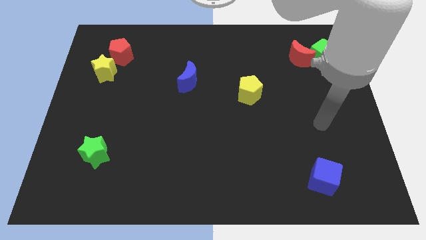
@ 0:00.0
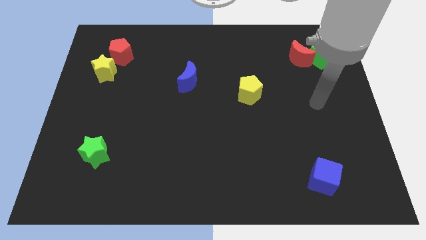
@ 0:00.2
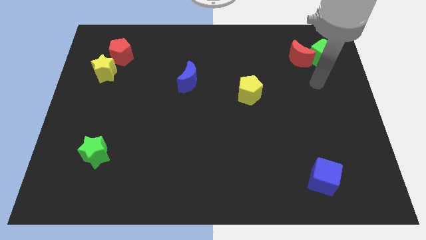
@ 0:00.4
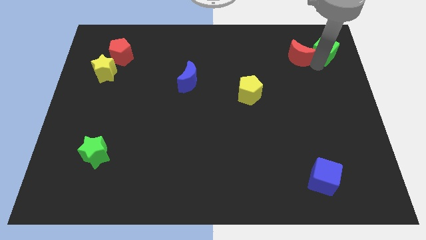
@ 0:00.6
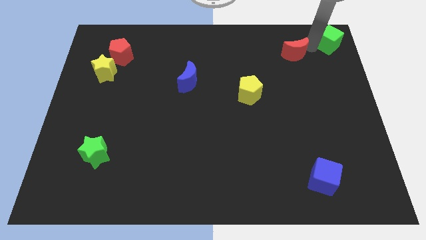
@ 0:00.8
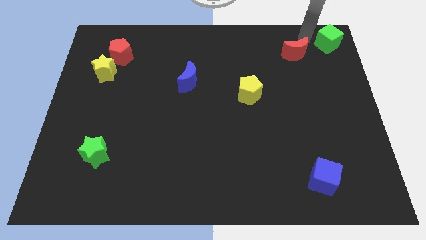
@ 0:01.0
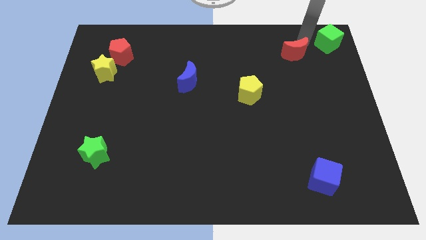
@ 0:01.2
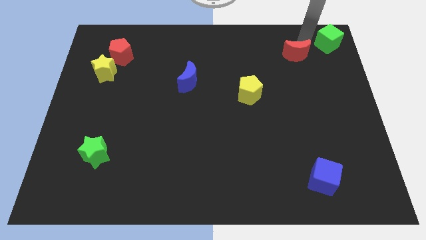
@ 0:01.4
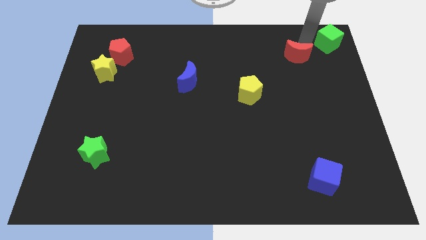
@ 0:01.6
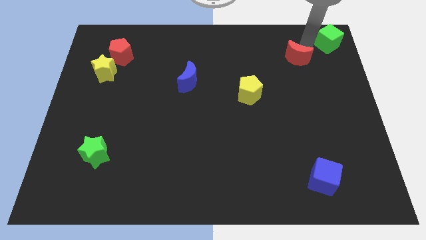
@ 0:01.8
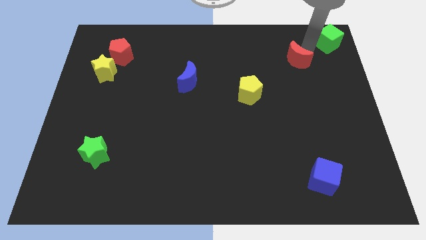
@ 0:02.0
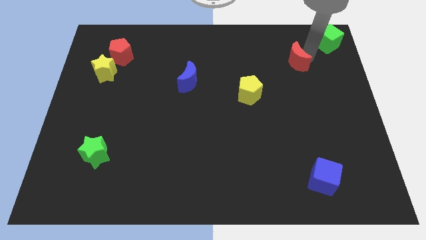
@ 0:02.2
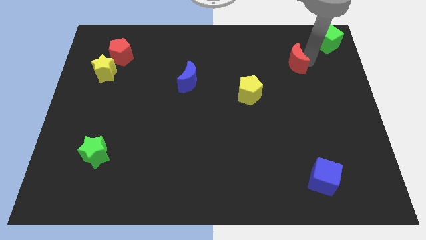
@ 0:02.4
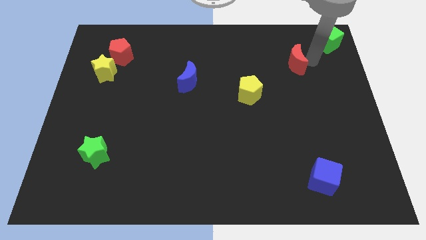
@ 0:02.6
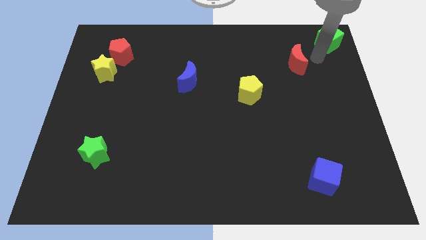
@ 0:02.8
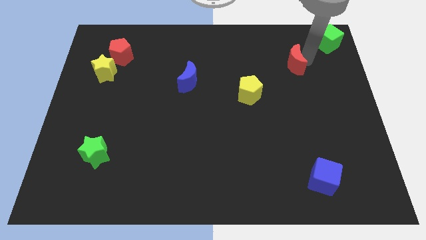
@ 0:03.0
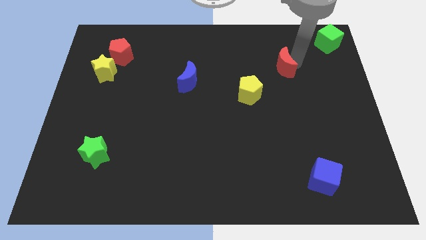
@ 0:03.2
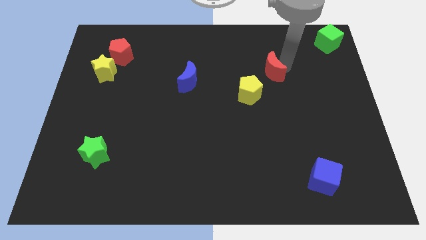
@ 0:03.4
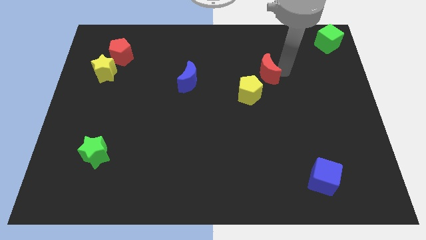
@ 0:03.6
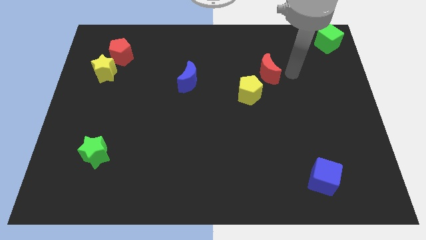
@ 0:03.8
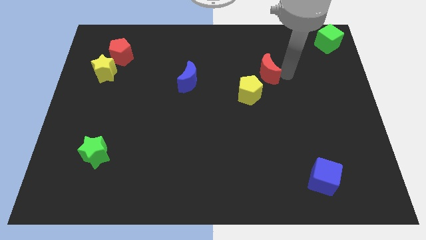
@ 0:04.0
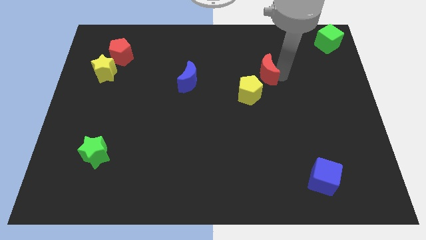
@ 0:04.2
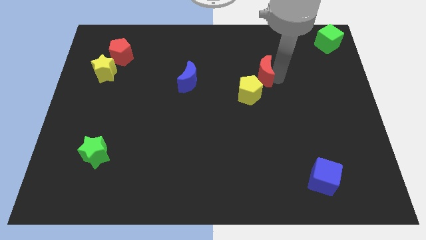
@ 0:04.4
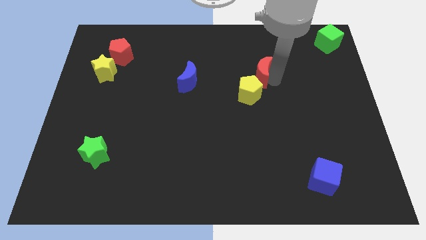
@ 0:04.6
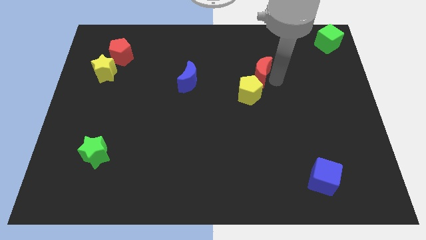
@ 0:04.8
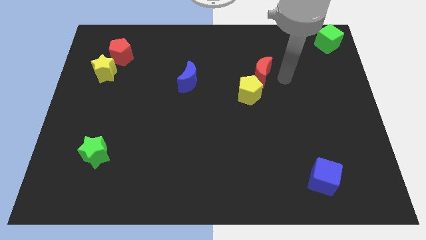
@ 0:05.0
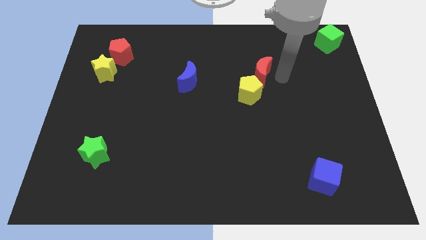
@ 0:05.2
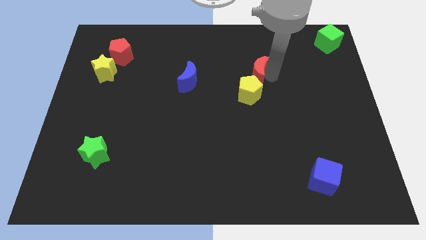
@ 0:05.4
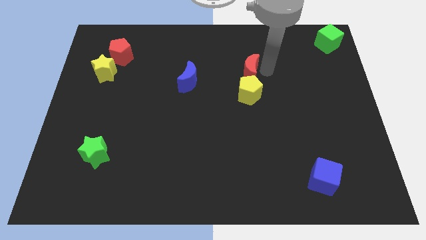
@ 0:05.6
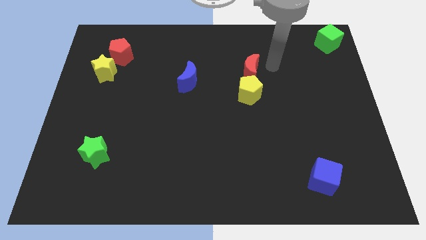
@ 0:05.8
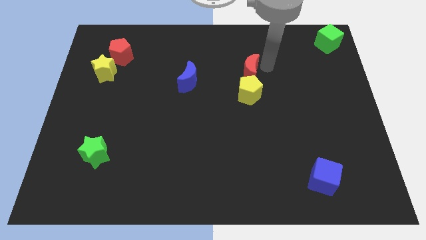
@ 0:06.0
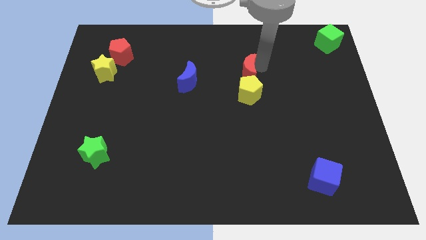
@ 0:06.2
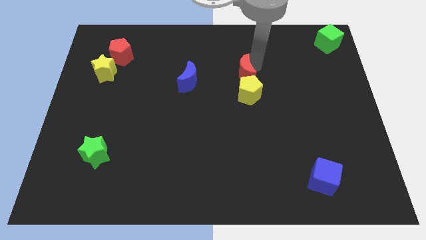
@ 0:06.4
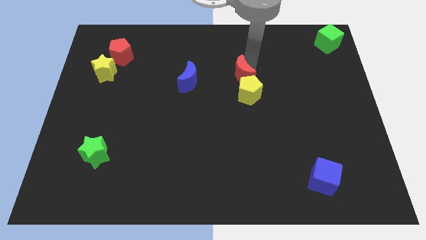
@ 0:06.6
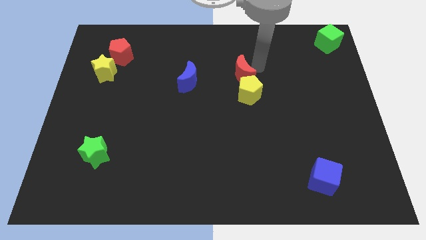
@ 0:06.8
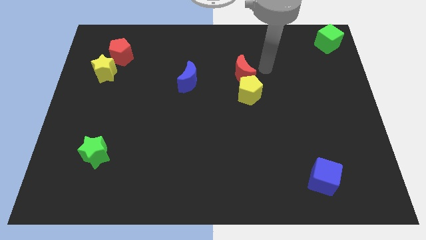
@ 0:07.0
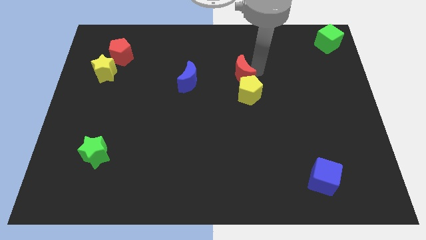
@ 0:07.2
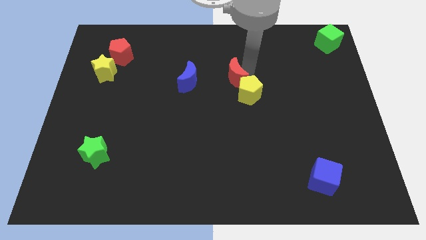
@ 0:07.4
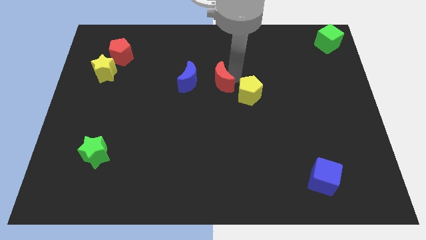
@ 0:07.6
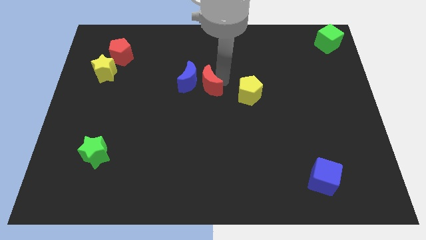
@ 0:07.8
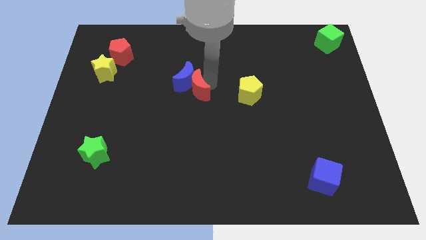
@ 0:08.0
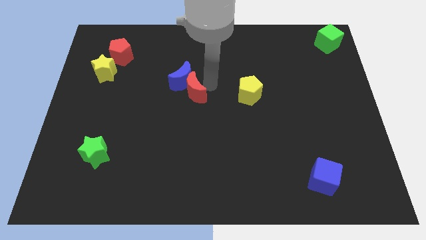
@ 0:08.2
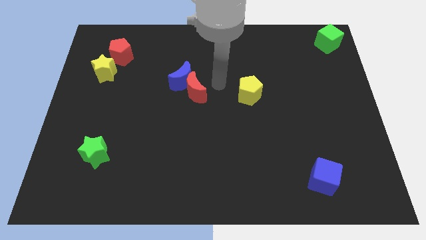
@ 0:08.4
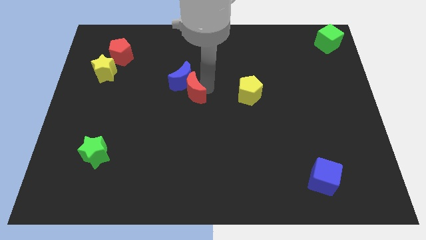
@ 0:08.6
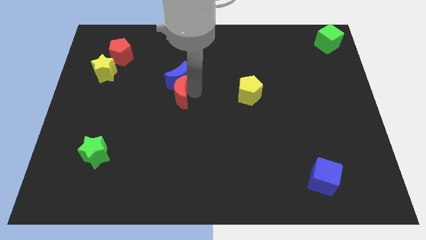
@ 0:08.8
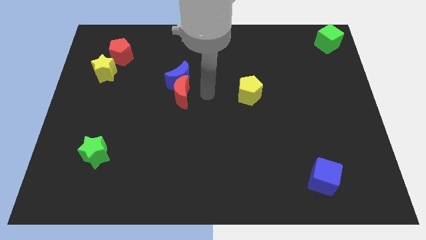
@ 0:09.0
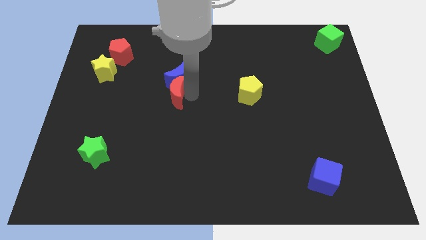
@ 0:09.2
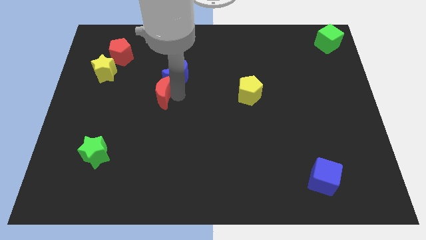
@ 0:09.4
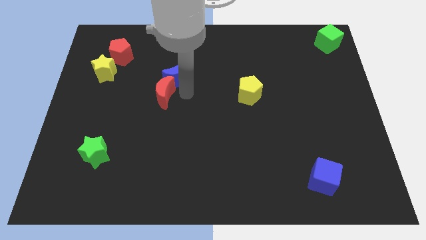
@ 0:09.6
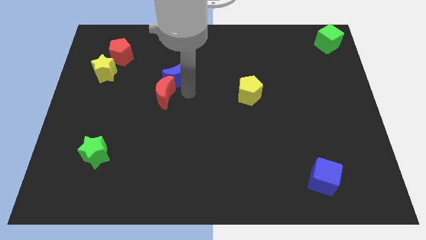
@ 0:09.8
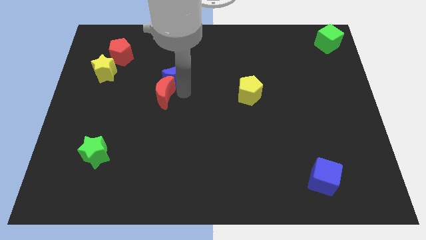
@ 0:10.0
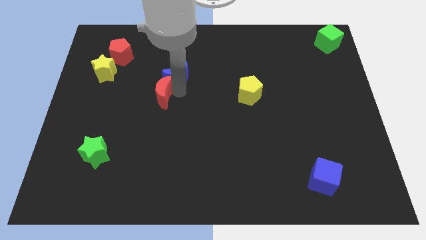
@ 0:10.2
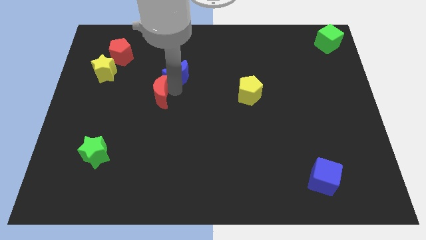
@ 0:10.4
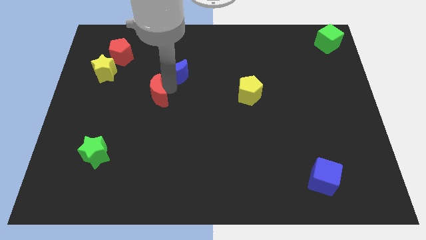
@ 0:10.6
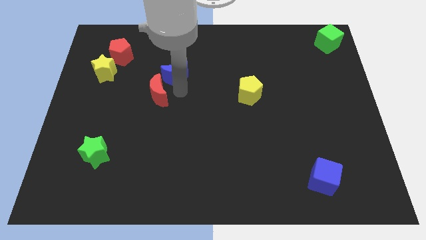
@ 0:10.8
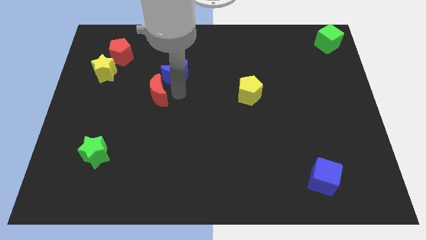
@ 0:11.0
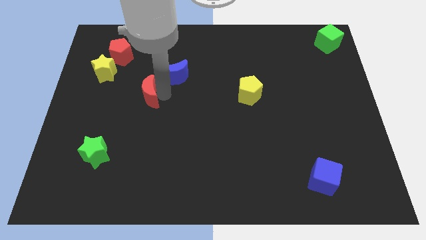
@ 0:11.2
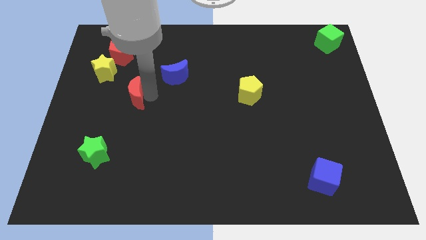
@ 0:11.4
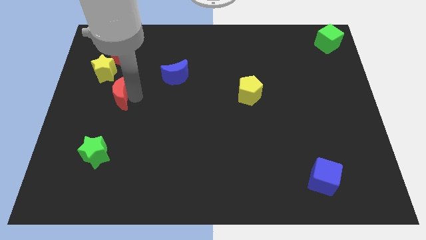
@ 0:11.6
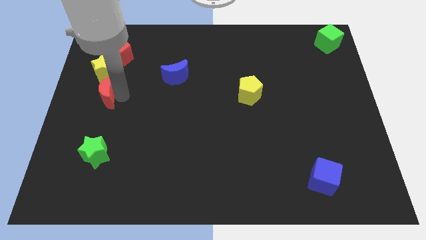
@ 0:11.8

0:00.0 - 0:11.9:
put the red moon to the left side
